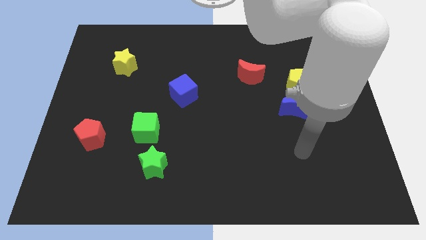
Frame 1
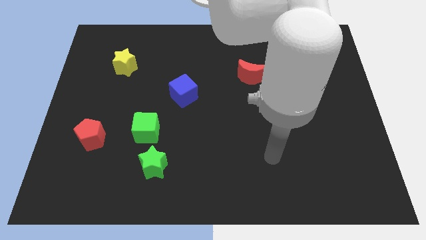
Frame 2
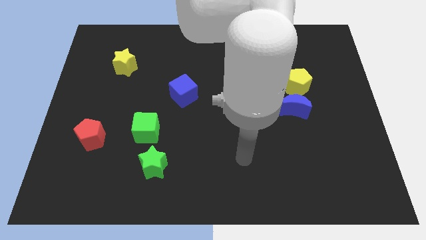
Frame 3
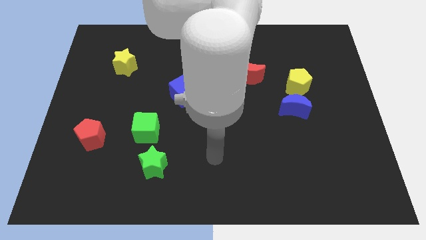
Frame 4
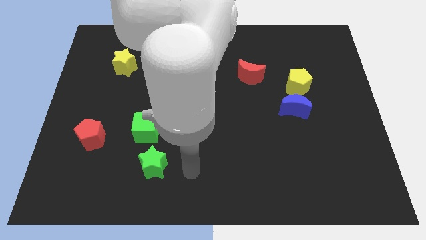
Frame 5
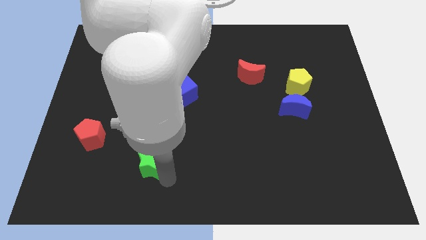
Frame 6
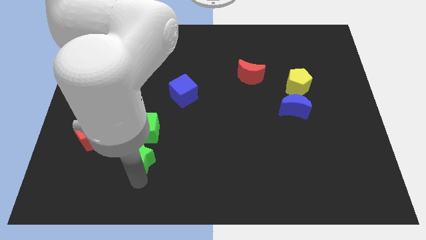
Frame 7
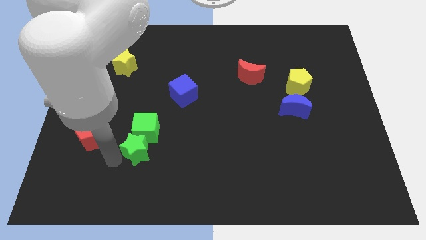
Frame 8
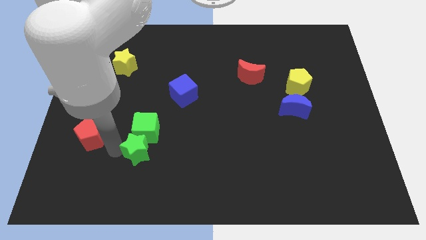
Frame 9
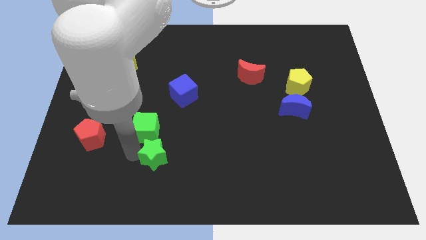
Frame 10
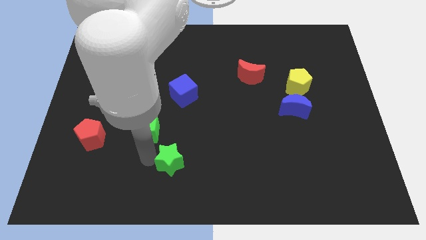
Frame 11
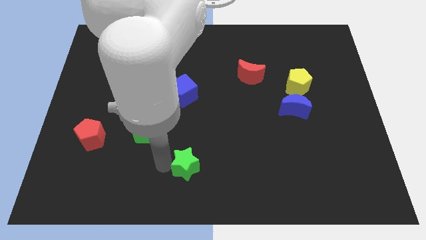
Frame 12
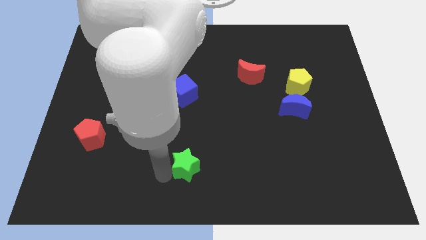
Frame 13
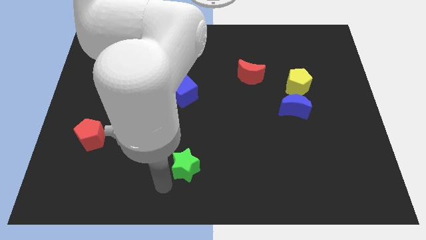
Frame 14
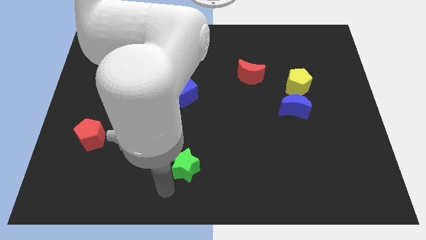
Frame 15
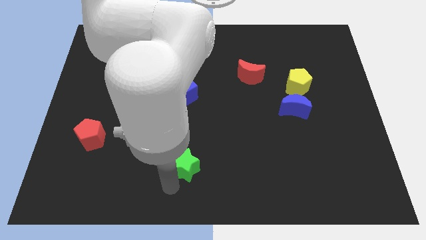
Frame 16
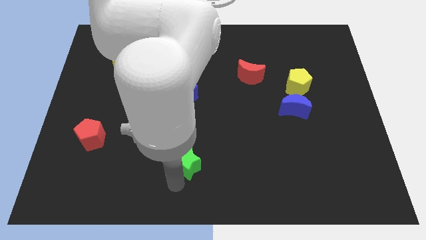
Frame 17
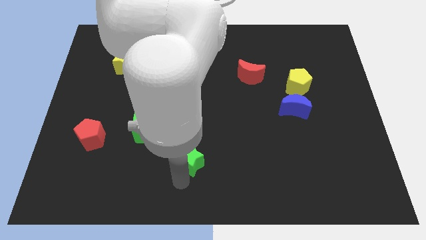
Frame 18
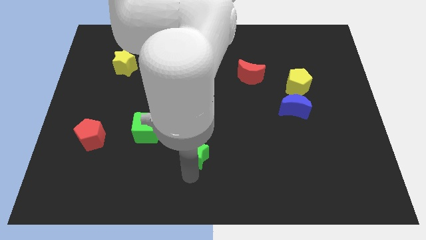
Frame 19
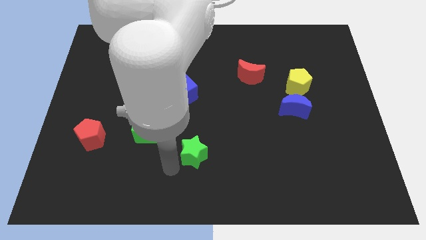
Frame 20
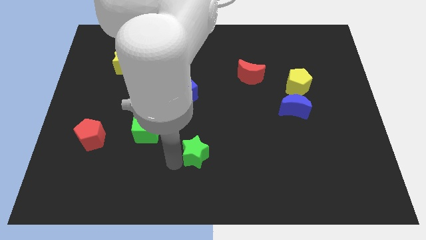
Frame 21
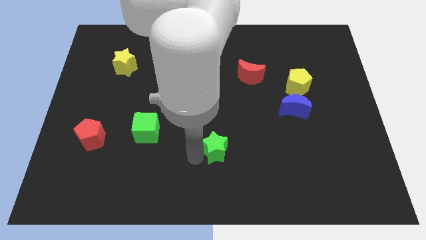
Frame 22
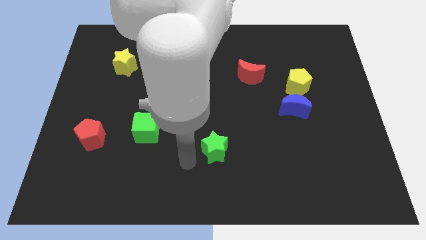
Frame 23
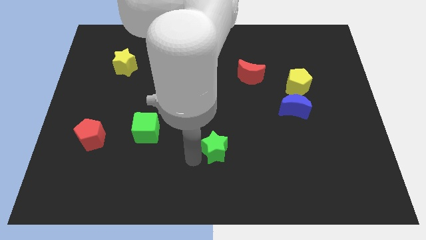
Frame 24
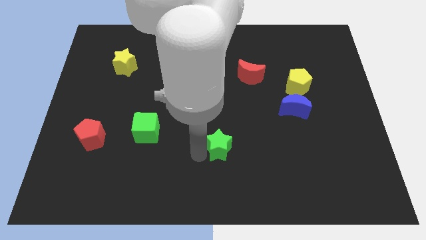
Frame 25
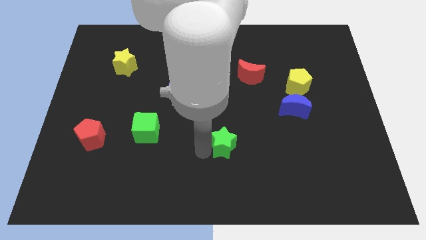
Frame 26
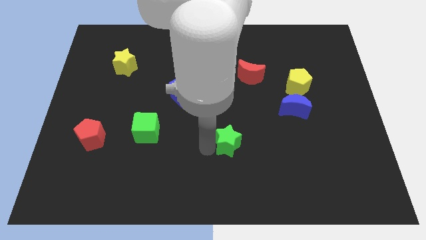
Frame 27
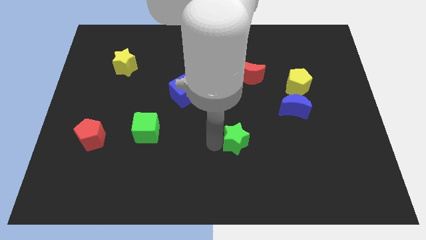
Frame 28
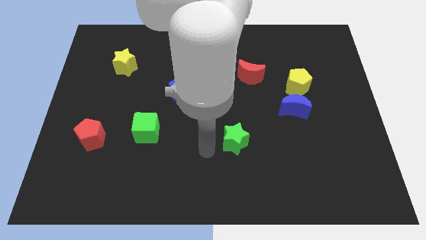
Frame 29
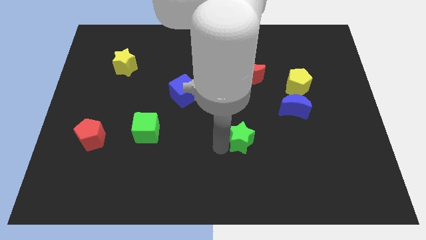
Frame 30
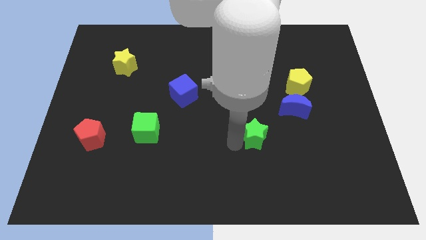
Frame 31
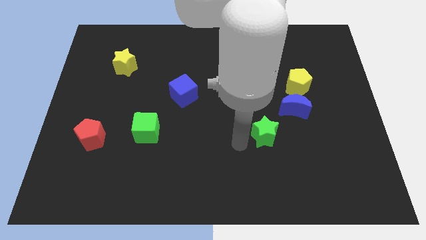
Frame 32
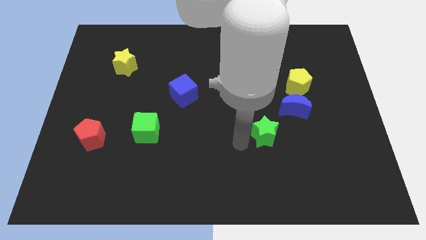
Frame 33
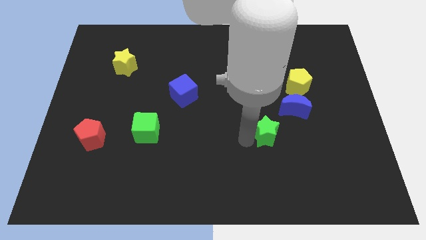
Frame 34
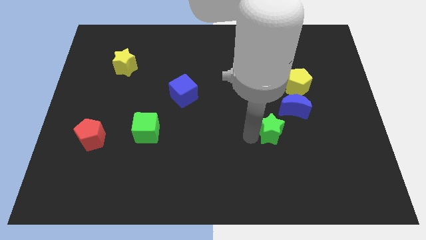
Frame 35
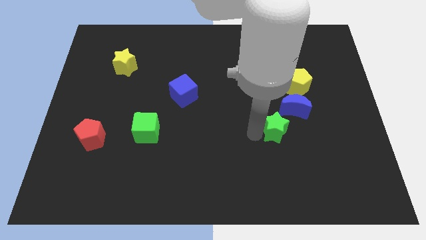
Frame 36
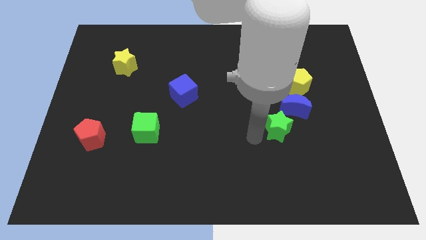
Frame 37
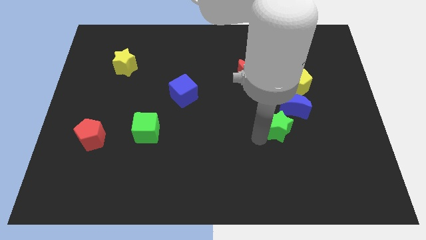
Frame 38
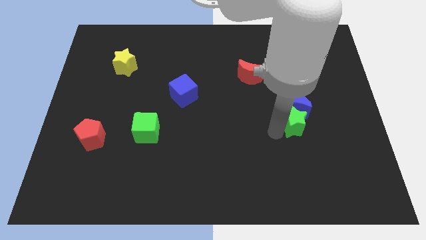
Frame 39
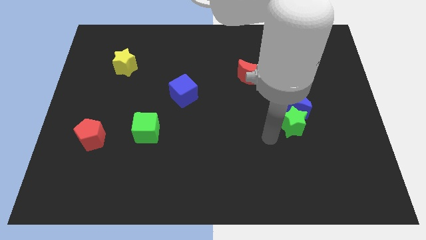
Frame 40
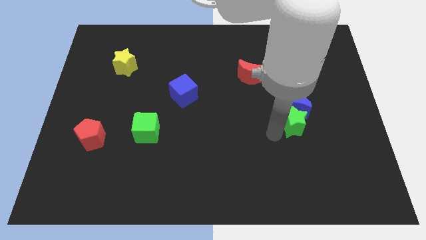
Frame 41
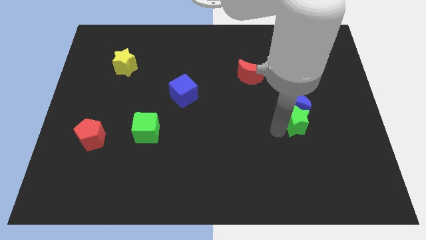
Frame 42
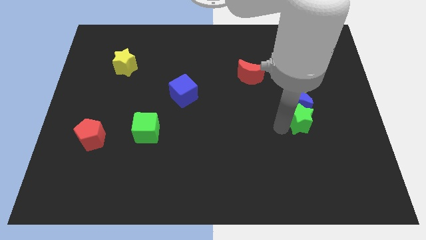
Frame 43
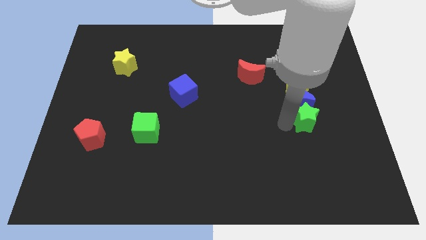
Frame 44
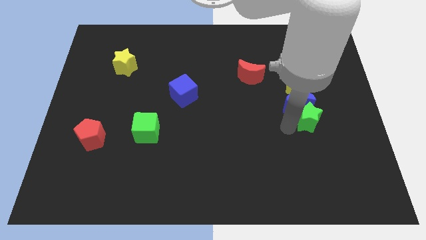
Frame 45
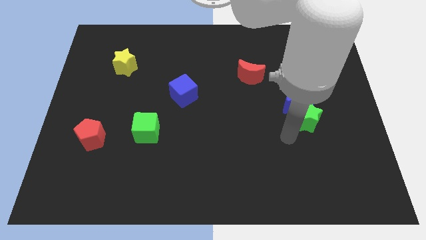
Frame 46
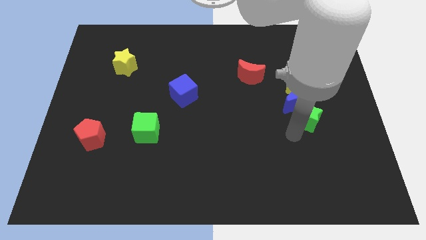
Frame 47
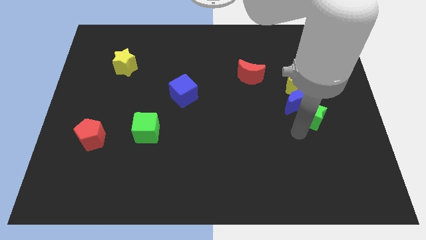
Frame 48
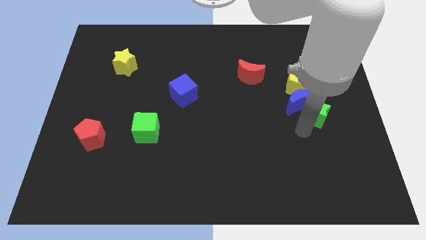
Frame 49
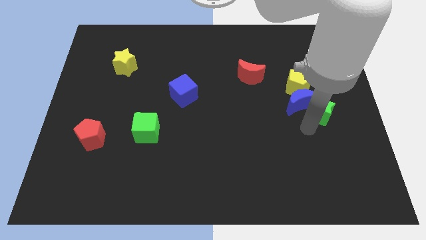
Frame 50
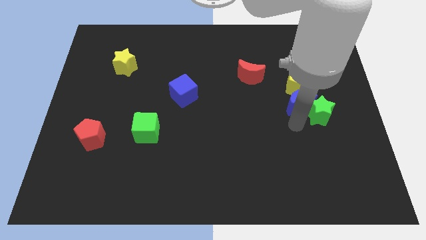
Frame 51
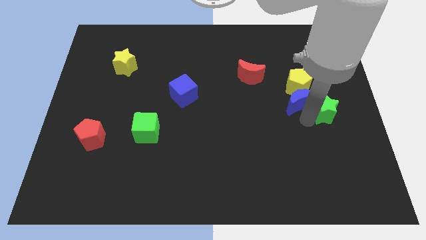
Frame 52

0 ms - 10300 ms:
push the green star to the center right

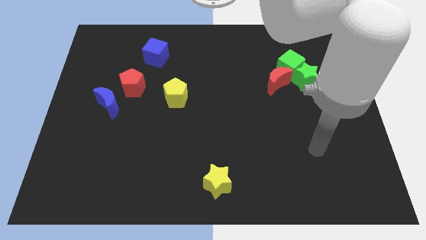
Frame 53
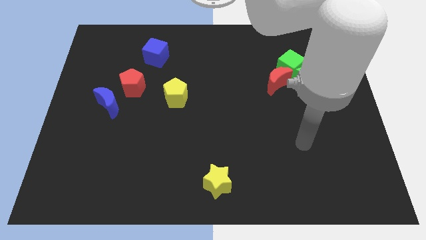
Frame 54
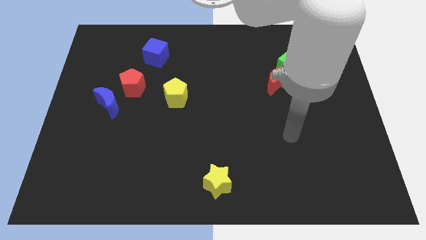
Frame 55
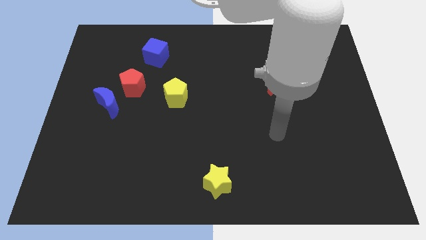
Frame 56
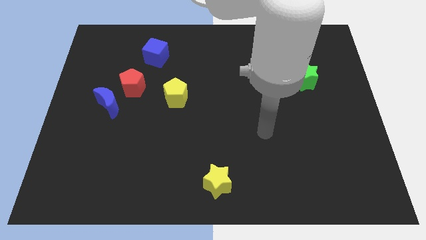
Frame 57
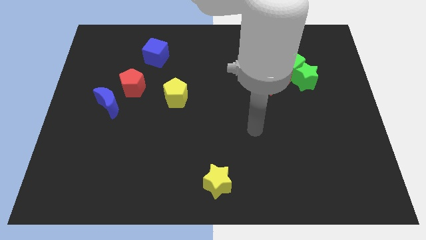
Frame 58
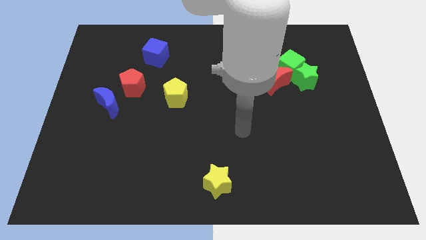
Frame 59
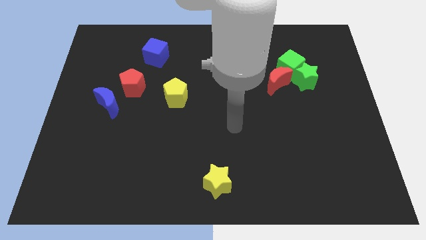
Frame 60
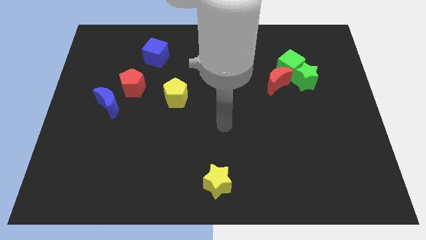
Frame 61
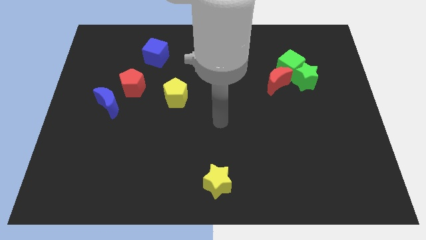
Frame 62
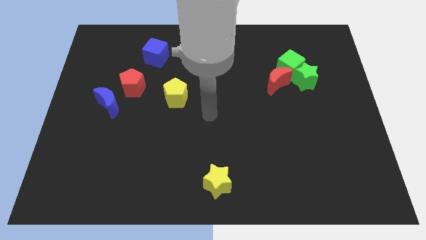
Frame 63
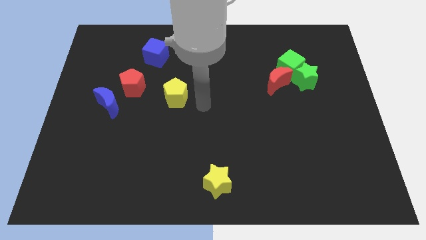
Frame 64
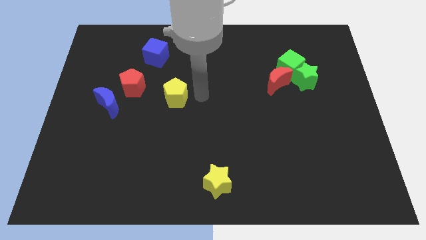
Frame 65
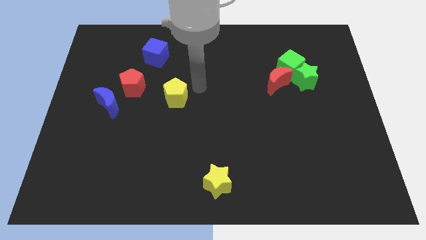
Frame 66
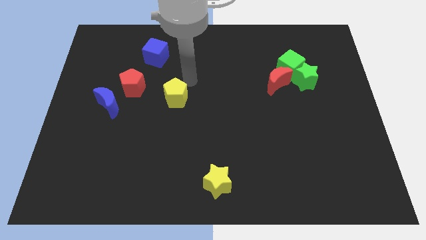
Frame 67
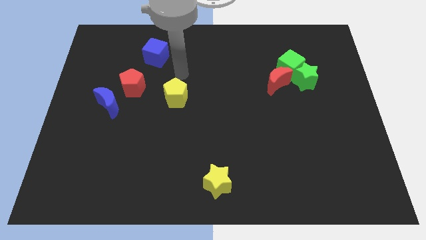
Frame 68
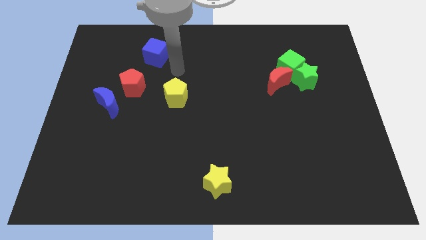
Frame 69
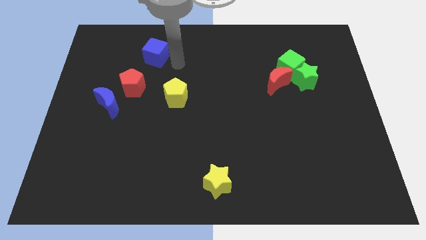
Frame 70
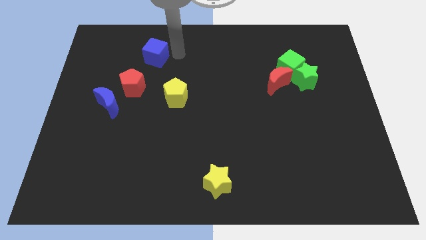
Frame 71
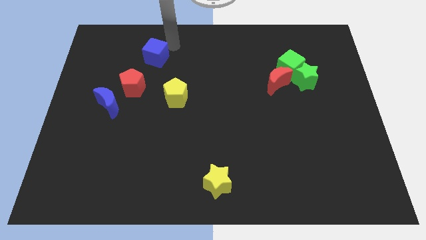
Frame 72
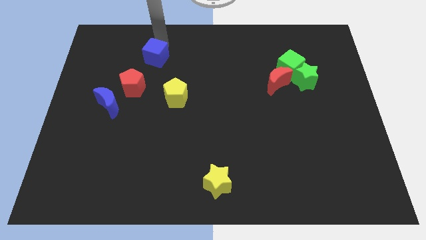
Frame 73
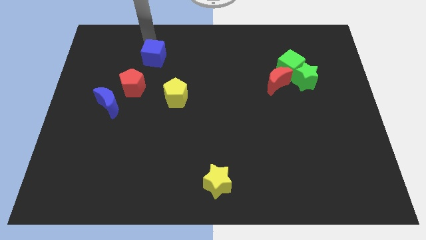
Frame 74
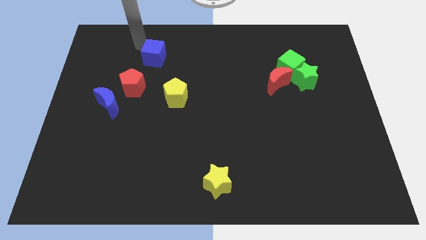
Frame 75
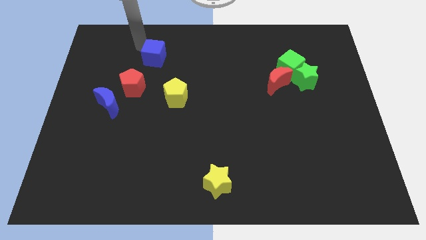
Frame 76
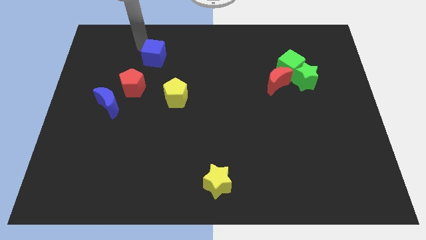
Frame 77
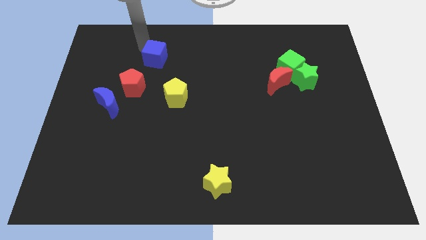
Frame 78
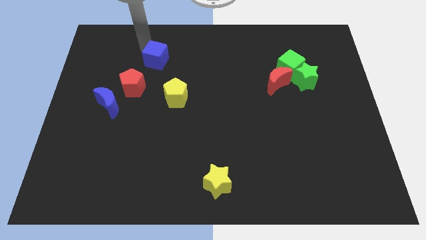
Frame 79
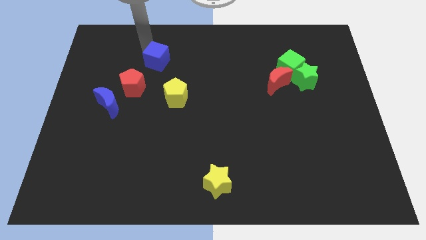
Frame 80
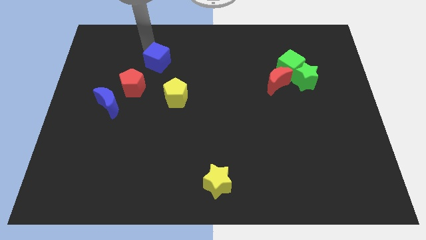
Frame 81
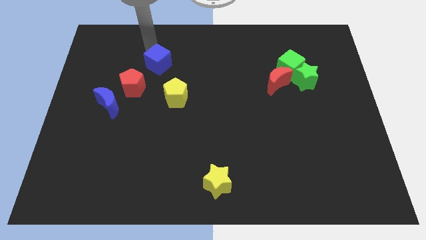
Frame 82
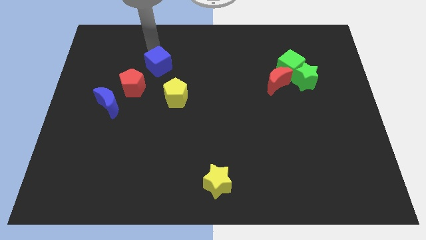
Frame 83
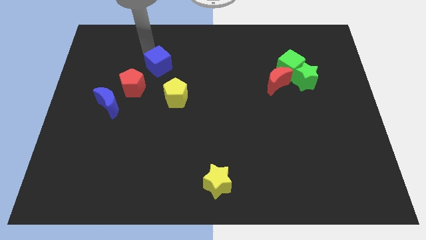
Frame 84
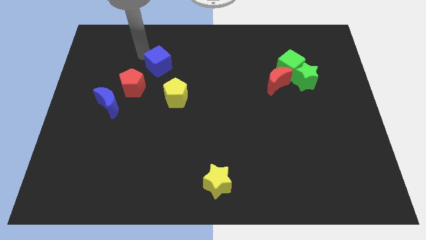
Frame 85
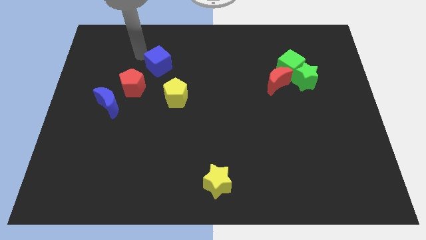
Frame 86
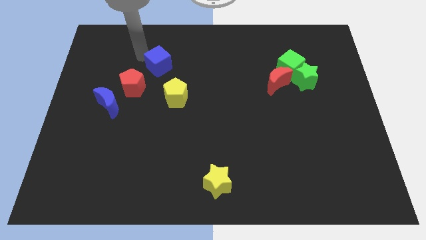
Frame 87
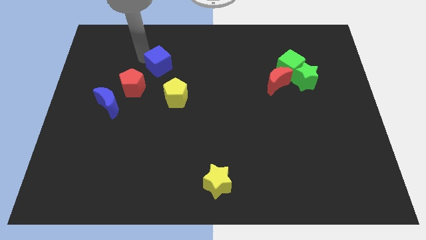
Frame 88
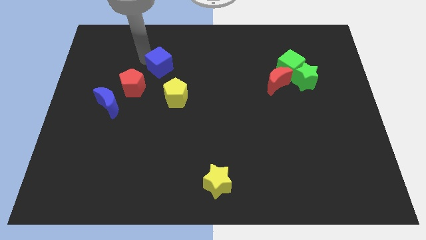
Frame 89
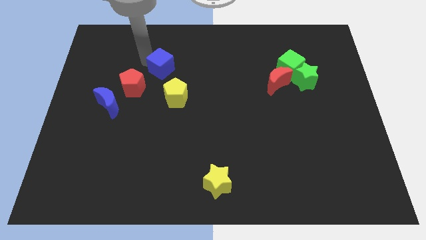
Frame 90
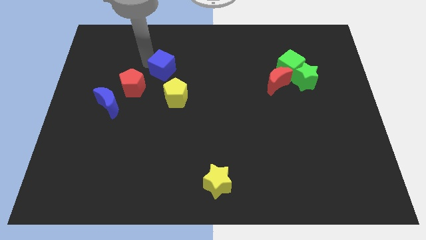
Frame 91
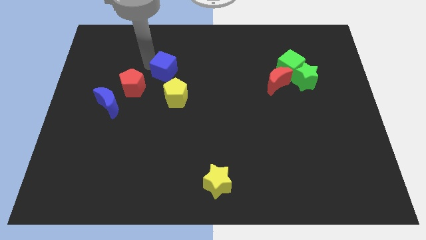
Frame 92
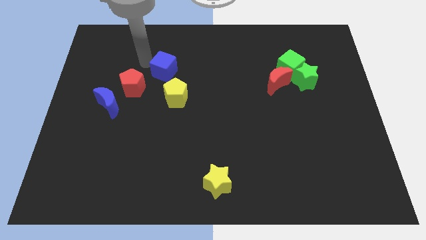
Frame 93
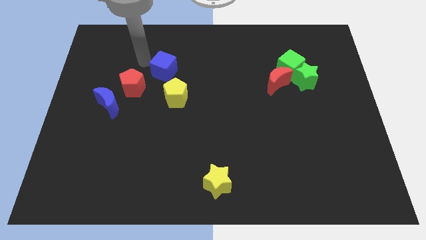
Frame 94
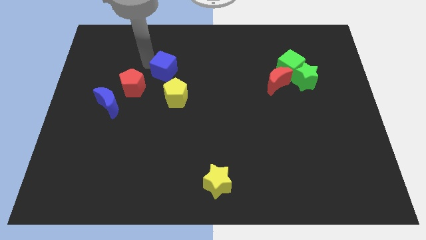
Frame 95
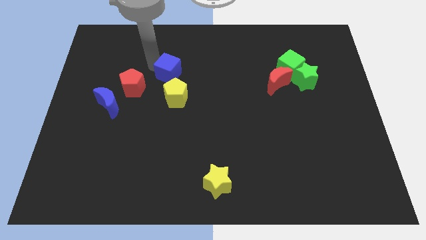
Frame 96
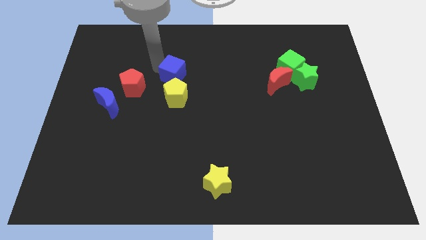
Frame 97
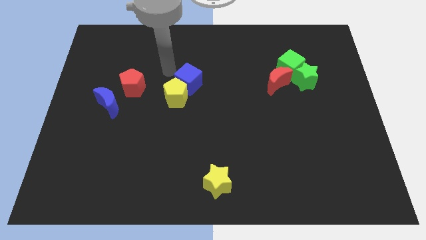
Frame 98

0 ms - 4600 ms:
slide the blue cube to the middle
